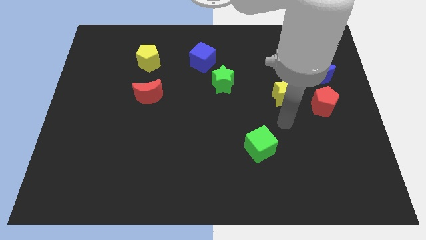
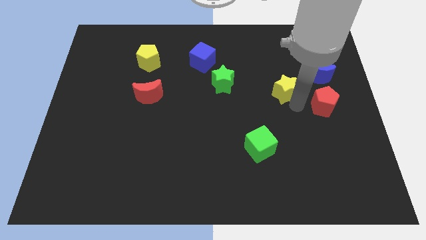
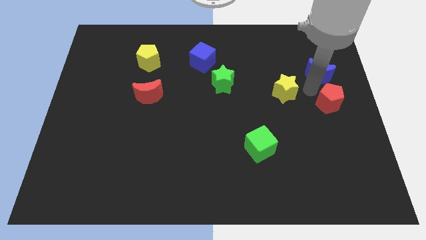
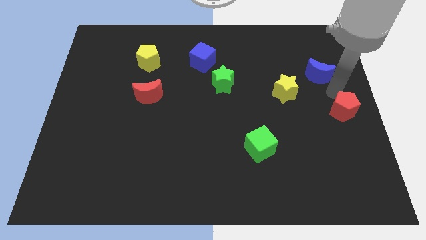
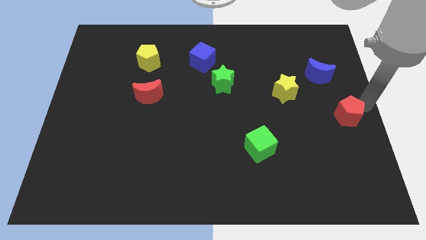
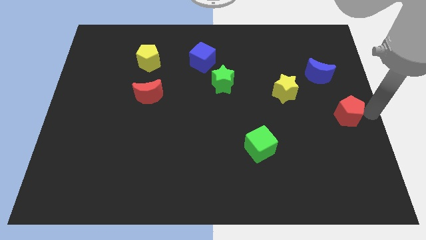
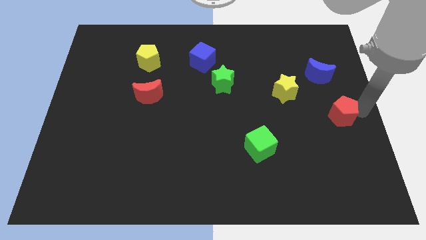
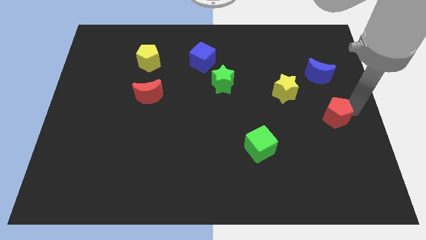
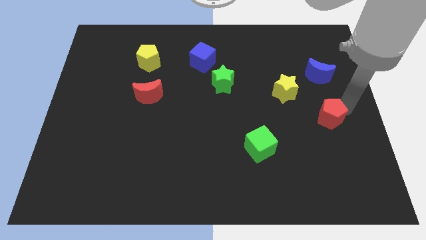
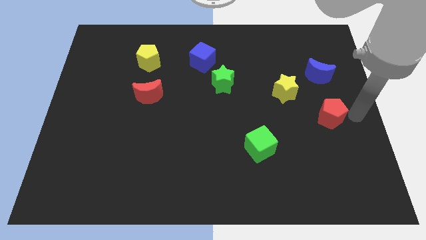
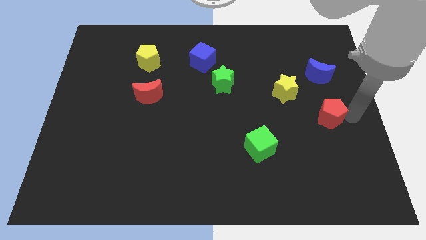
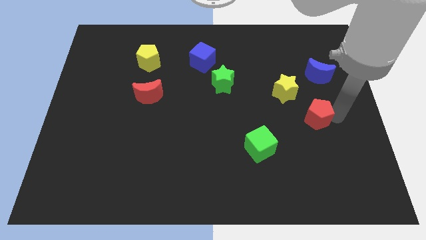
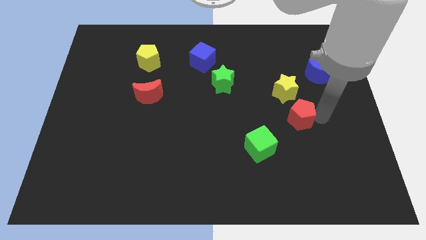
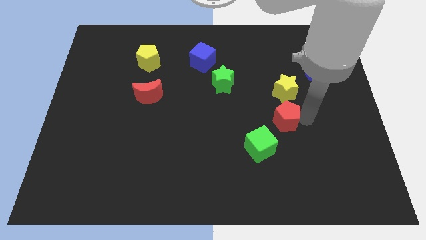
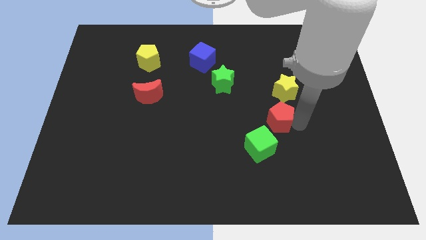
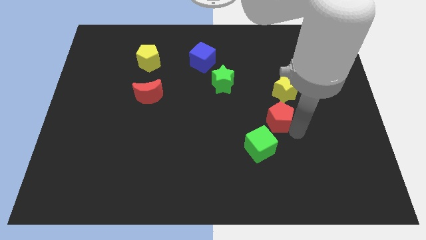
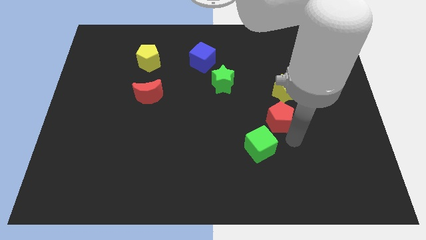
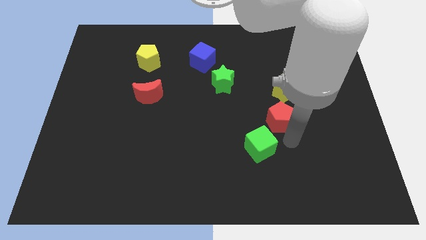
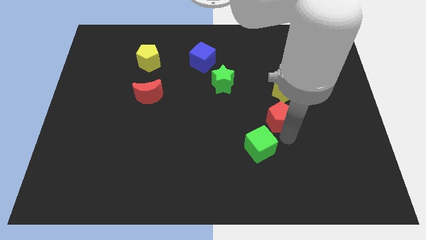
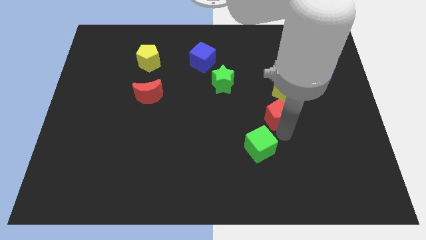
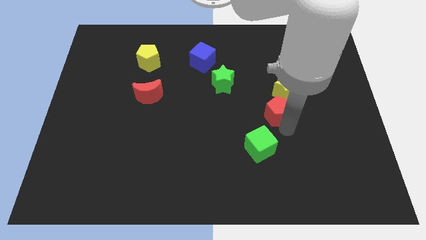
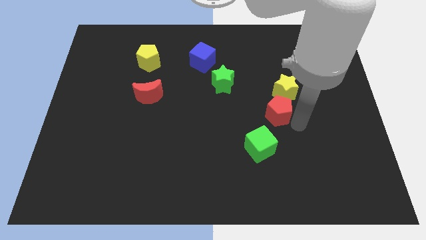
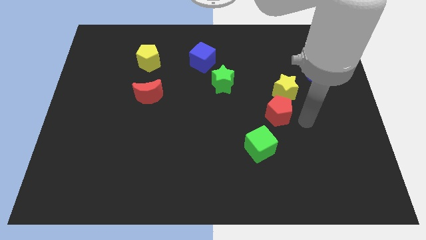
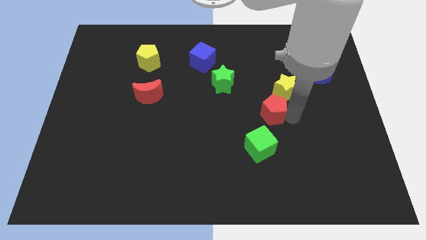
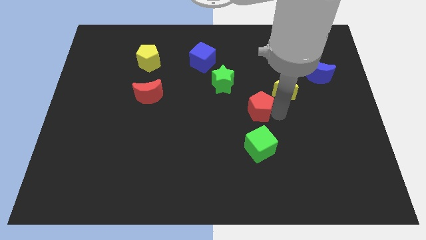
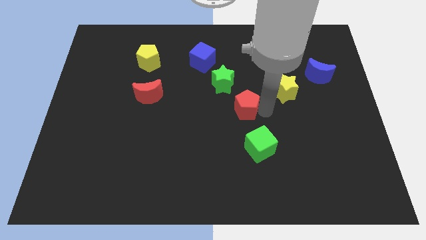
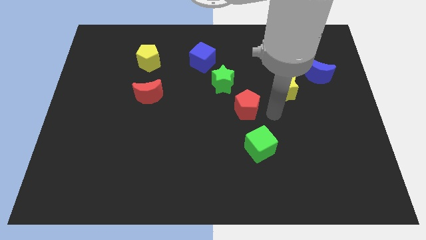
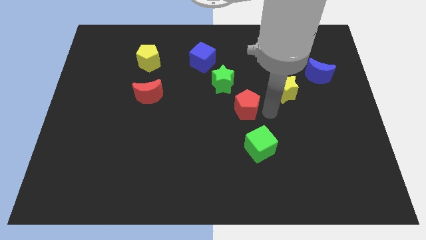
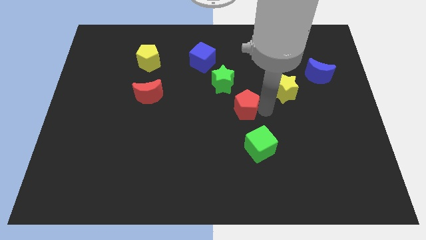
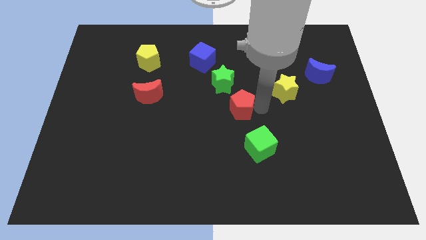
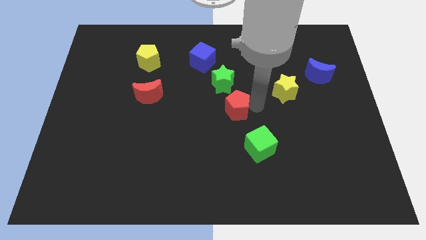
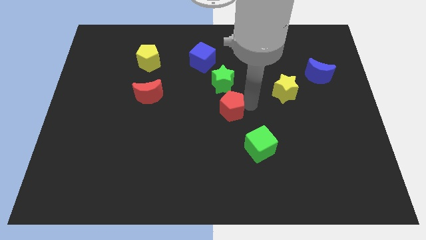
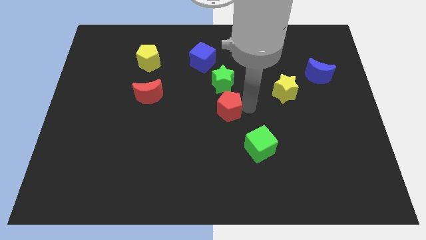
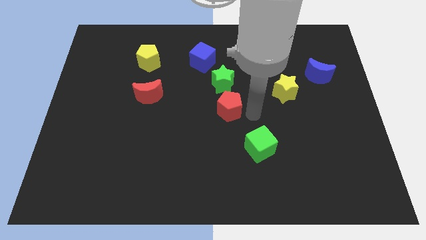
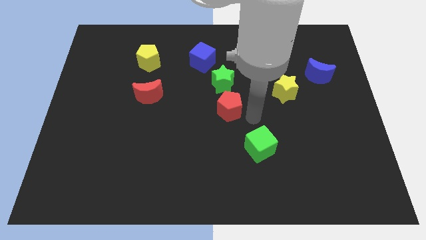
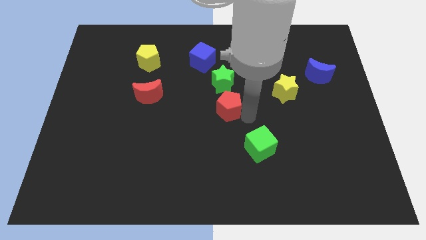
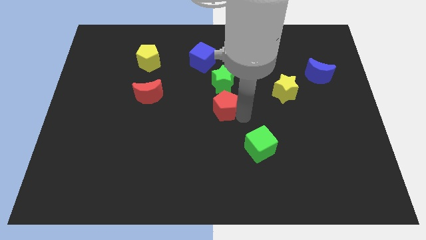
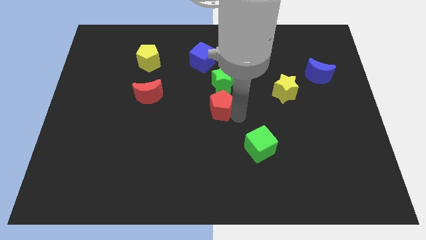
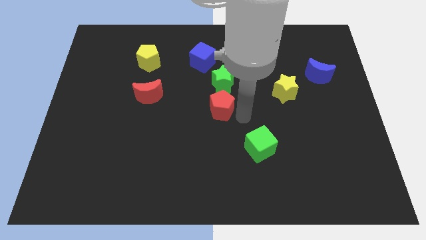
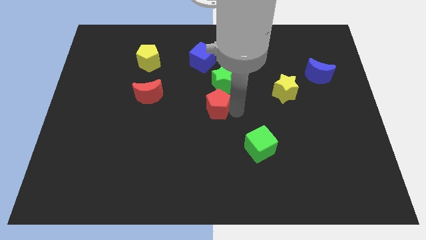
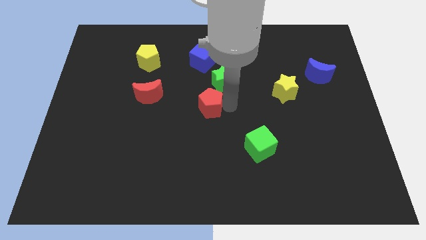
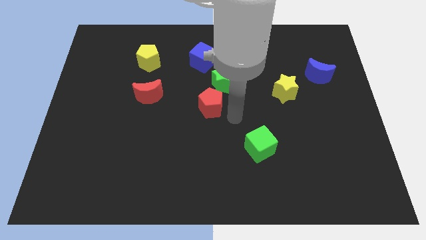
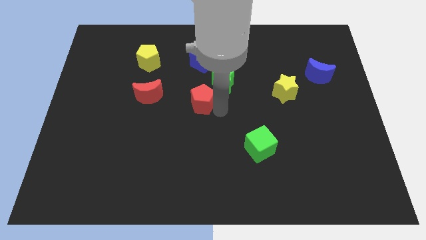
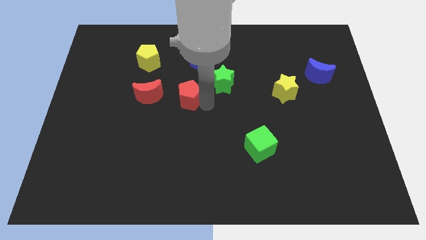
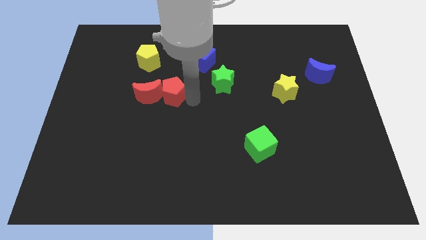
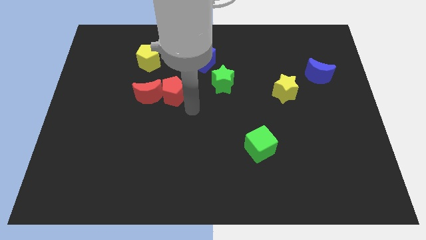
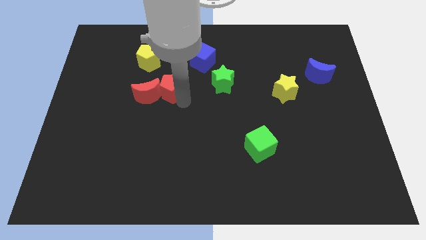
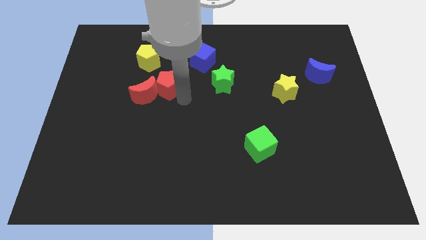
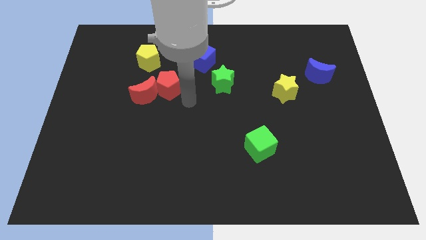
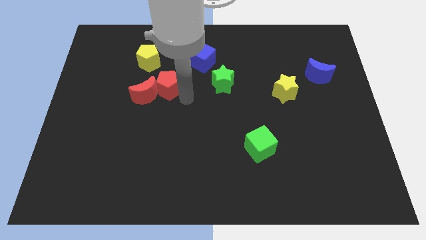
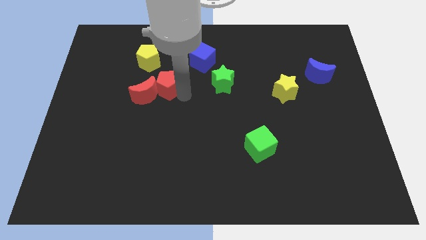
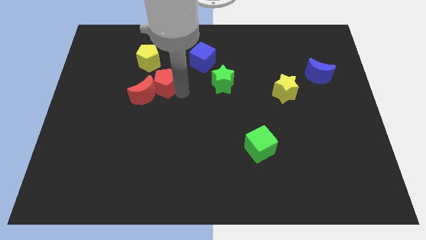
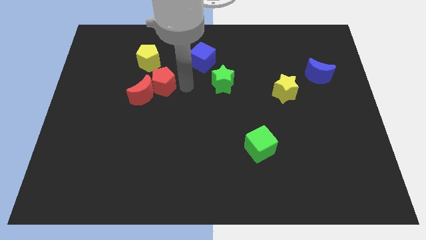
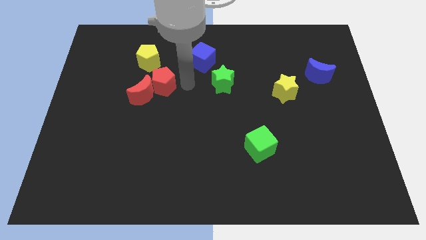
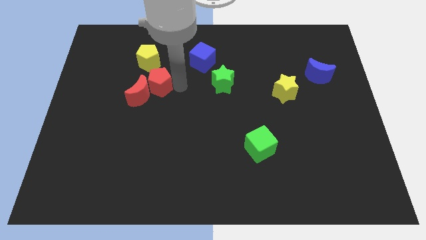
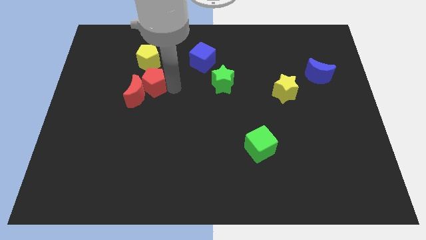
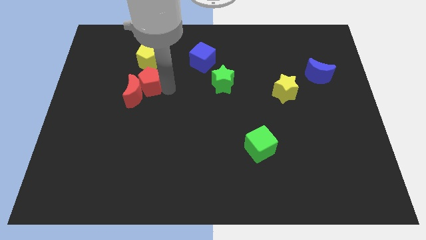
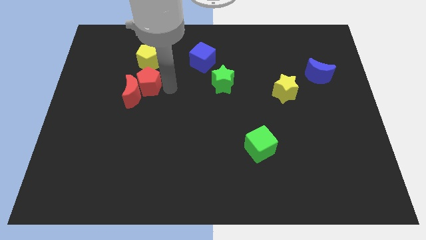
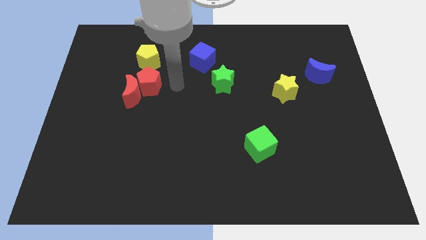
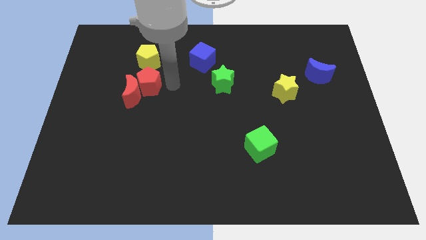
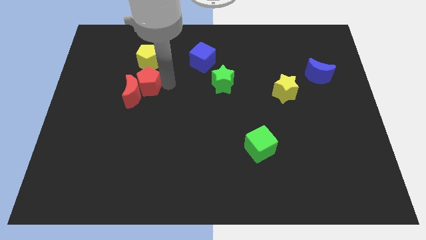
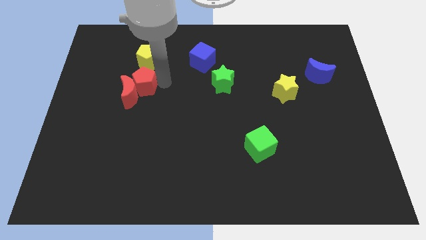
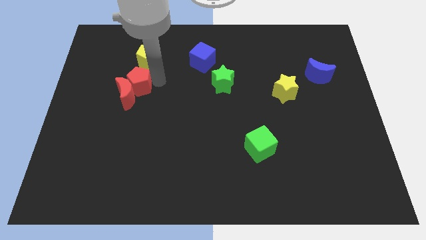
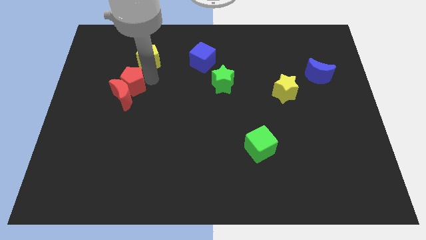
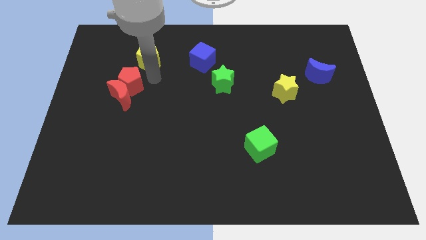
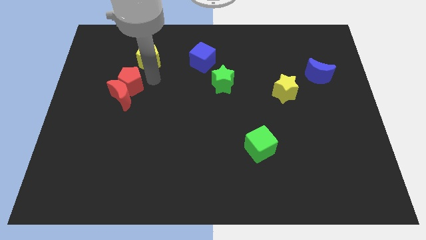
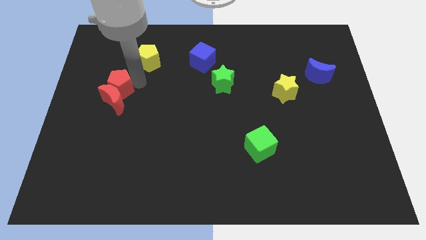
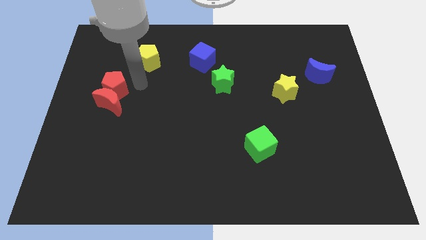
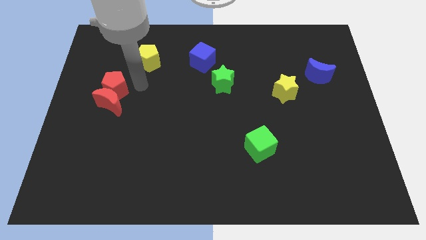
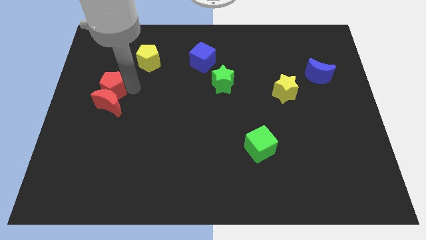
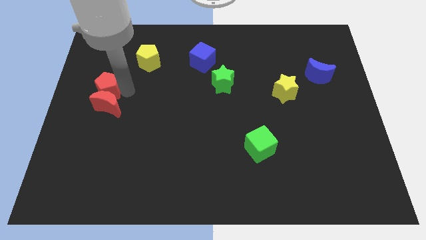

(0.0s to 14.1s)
move the red pentagon to the left side of the board
